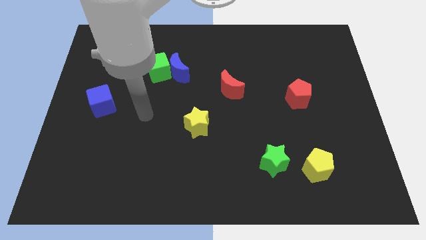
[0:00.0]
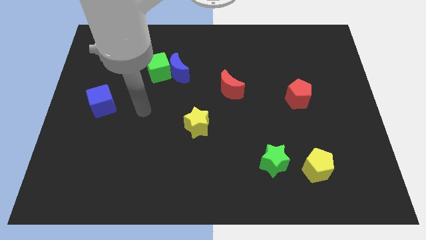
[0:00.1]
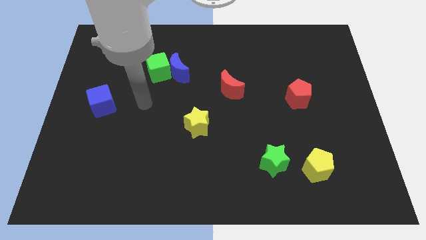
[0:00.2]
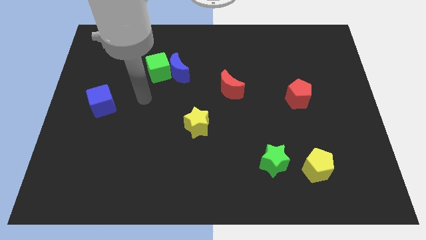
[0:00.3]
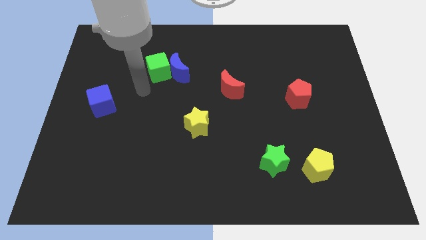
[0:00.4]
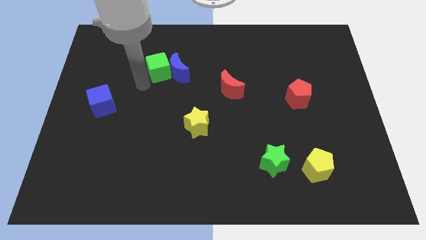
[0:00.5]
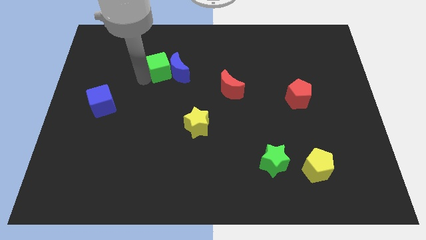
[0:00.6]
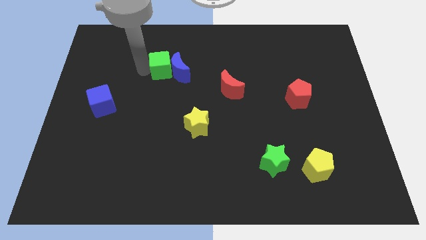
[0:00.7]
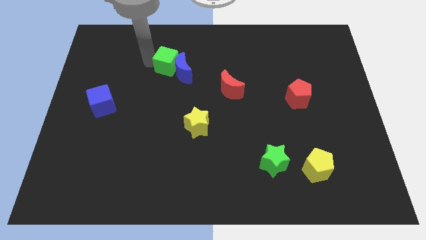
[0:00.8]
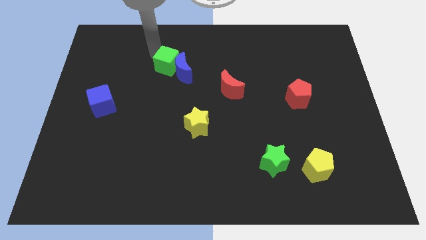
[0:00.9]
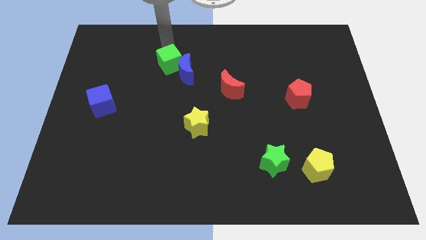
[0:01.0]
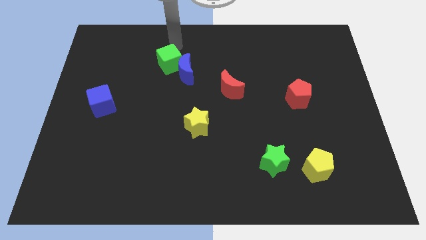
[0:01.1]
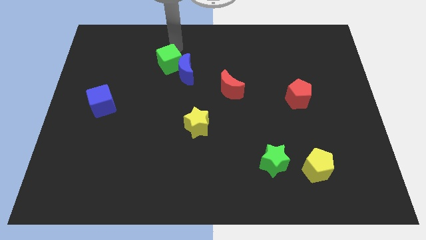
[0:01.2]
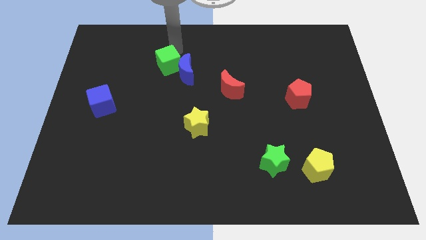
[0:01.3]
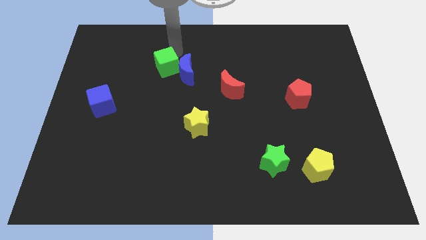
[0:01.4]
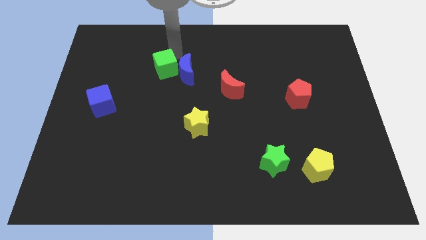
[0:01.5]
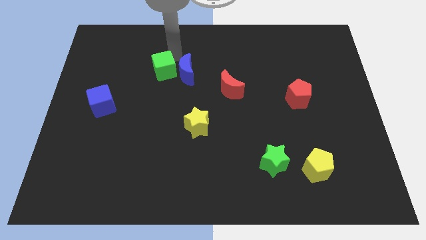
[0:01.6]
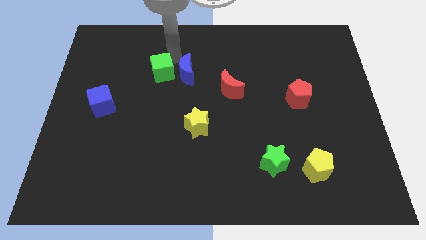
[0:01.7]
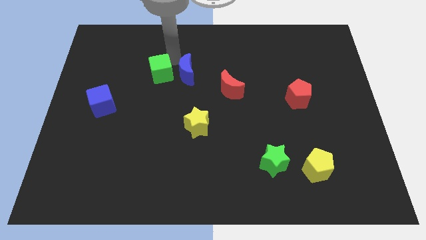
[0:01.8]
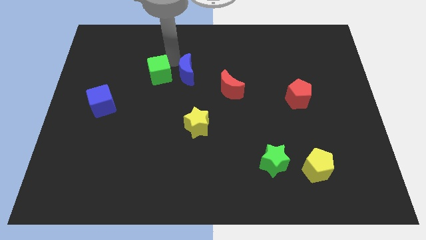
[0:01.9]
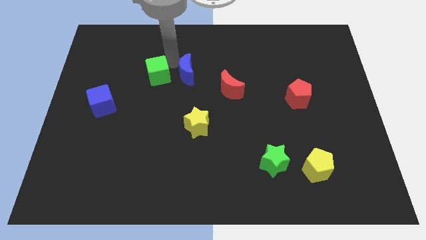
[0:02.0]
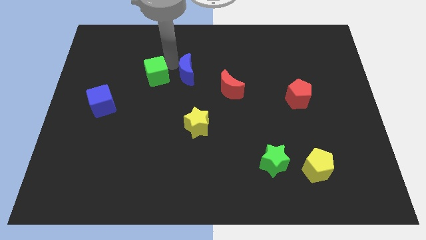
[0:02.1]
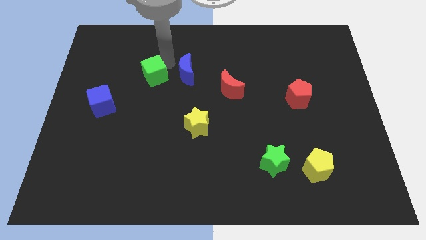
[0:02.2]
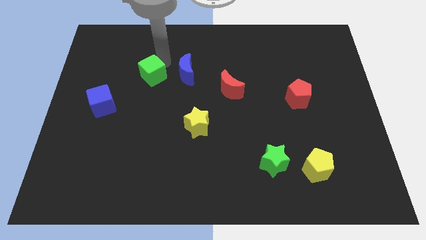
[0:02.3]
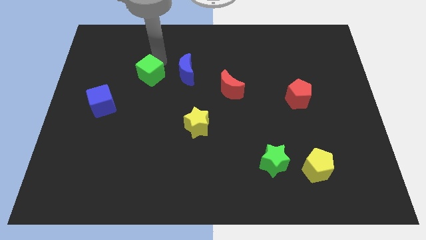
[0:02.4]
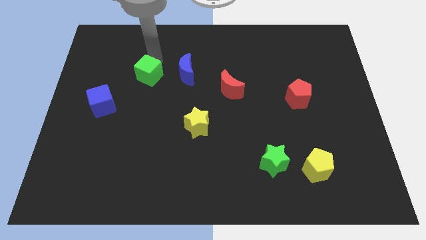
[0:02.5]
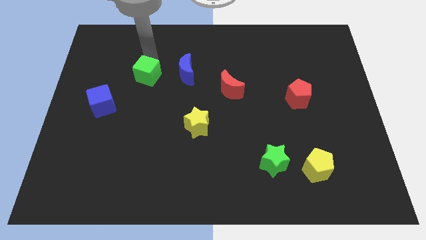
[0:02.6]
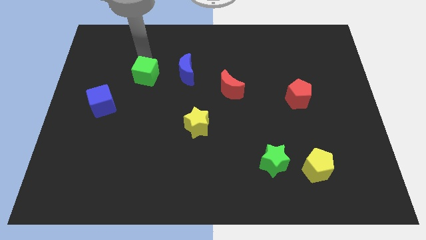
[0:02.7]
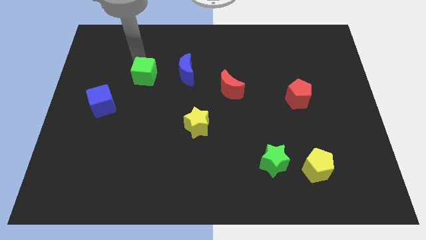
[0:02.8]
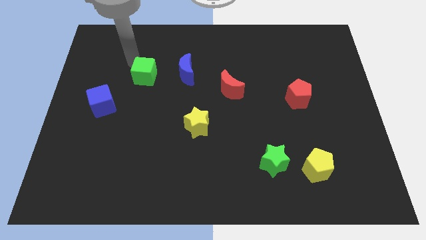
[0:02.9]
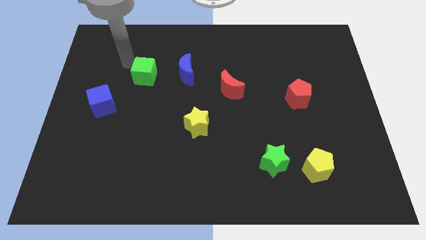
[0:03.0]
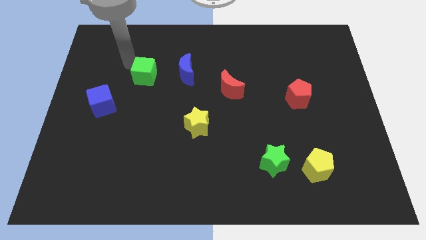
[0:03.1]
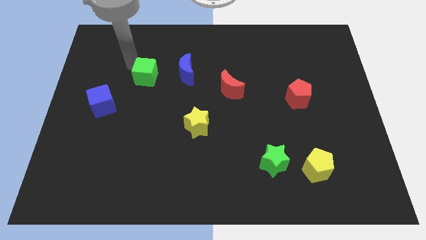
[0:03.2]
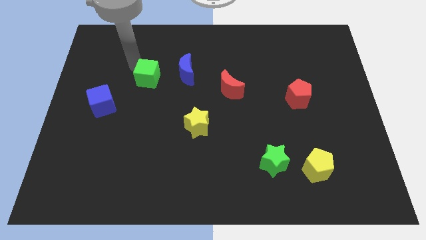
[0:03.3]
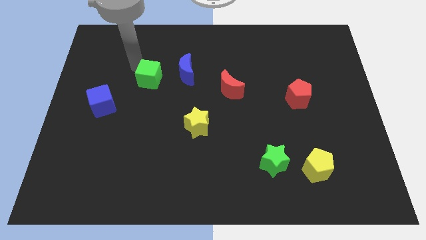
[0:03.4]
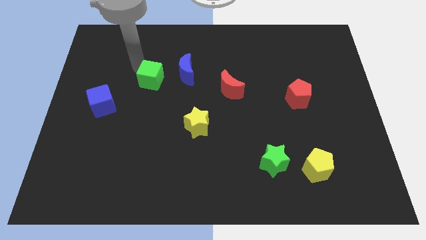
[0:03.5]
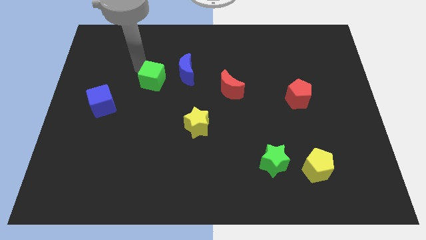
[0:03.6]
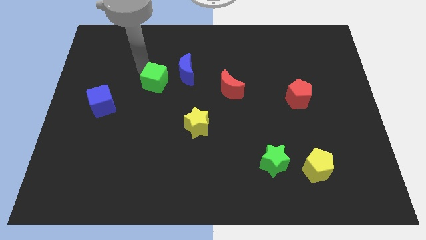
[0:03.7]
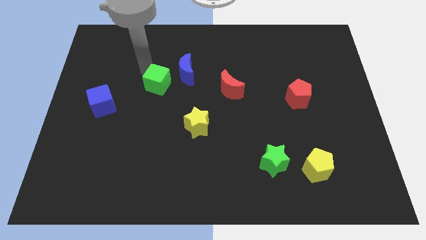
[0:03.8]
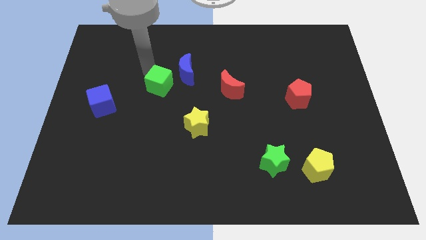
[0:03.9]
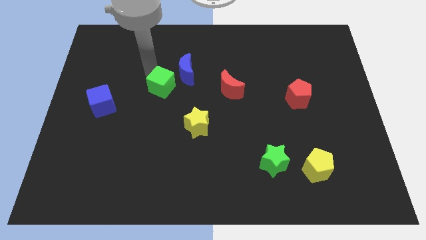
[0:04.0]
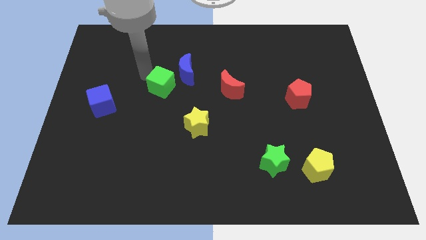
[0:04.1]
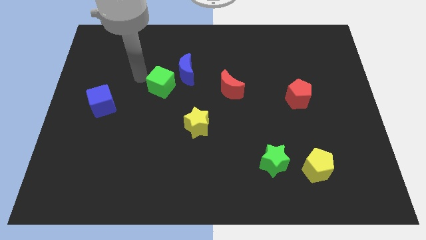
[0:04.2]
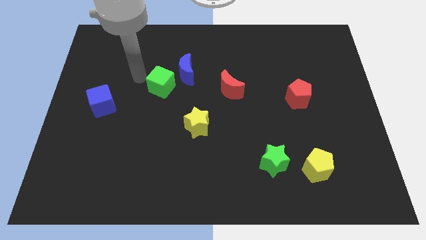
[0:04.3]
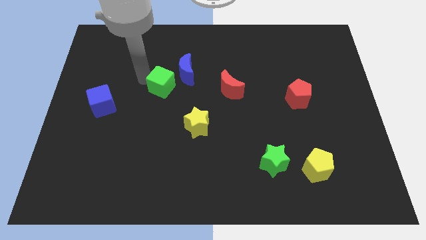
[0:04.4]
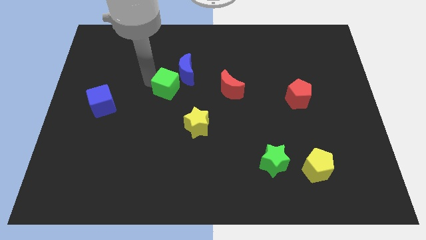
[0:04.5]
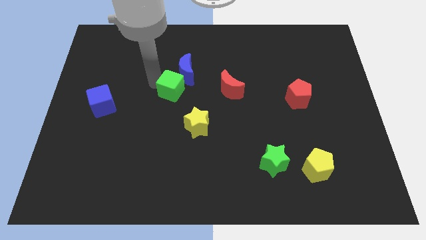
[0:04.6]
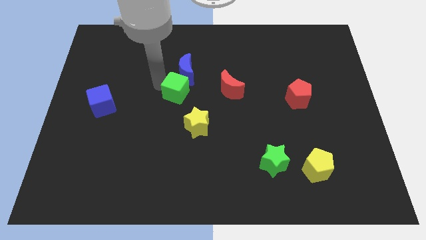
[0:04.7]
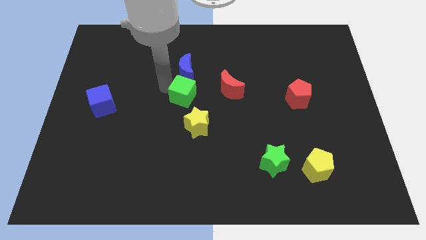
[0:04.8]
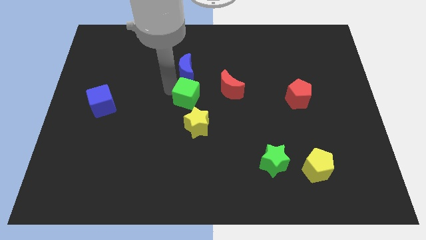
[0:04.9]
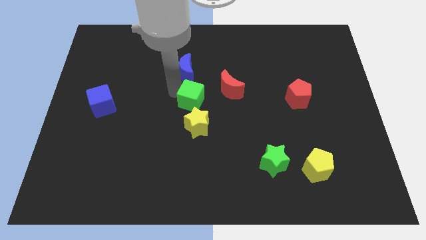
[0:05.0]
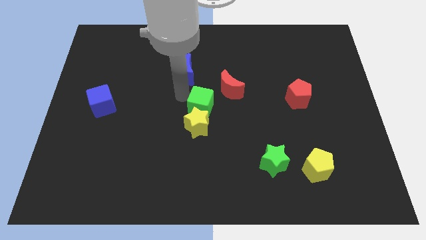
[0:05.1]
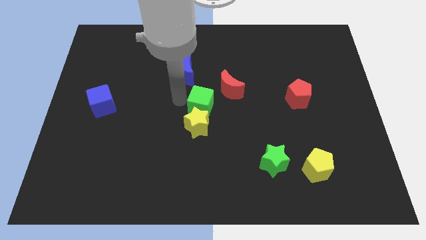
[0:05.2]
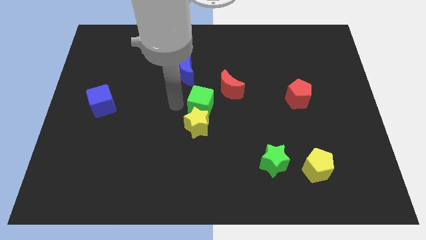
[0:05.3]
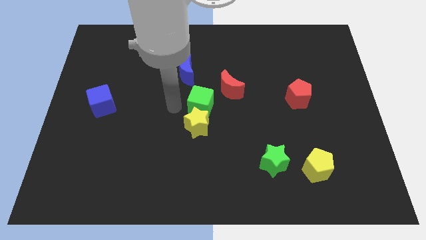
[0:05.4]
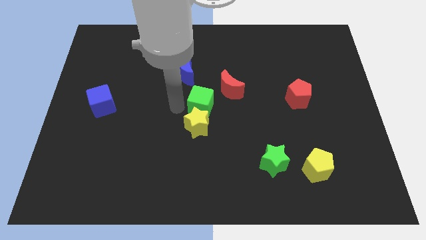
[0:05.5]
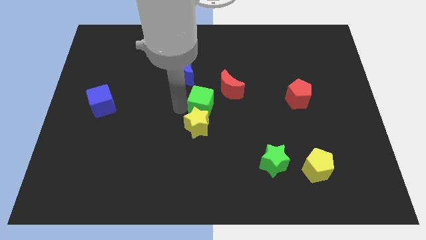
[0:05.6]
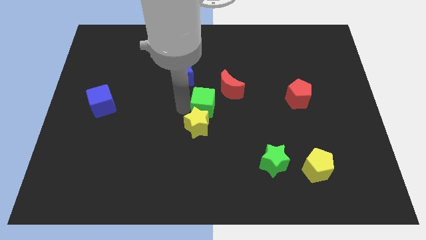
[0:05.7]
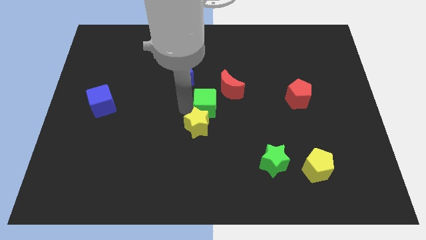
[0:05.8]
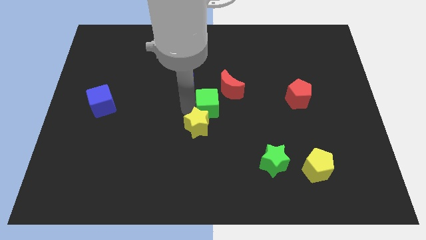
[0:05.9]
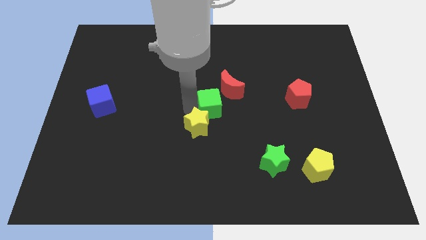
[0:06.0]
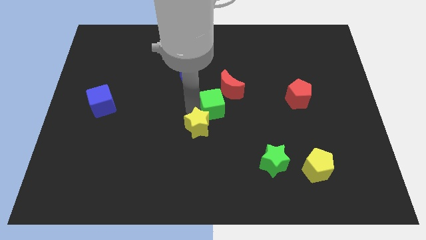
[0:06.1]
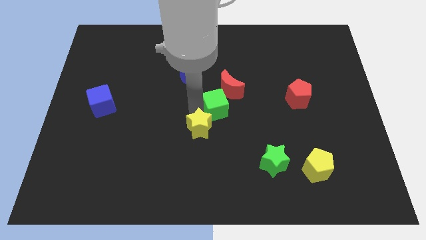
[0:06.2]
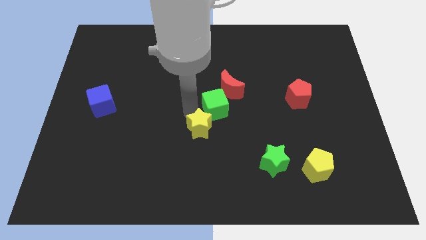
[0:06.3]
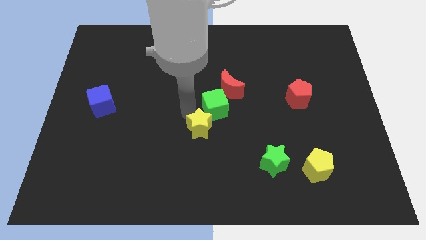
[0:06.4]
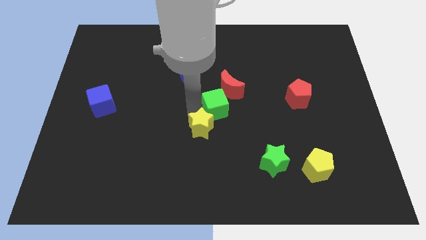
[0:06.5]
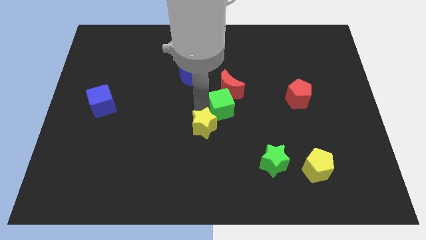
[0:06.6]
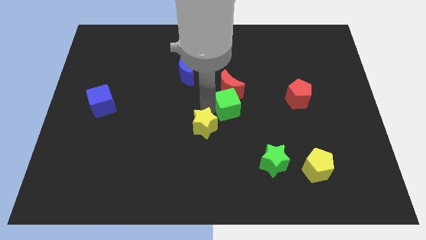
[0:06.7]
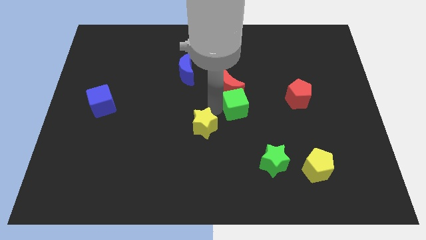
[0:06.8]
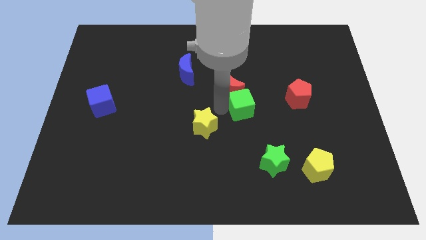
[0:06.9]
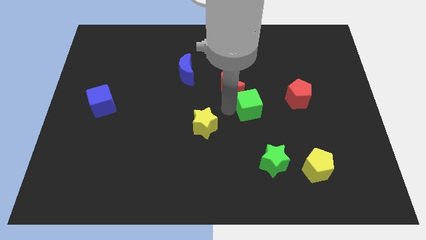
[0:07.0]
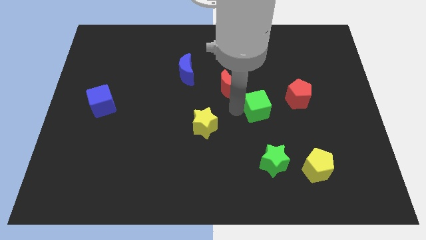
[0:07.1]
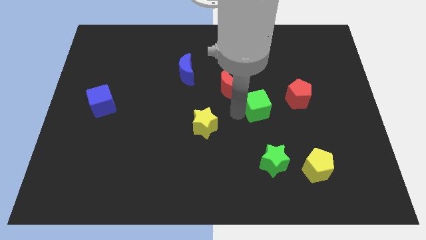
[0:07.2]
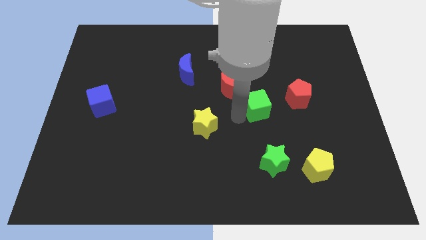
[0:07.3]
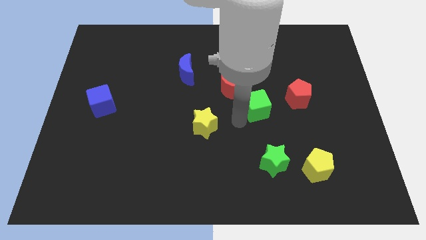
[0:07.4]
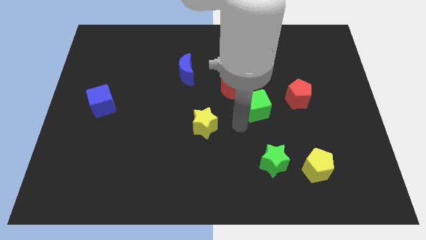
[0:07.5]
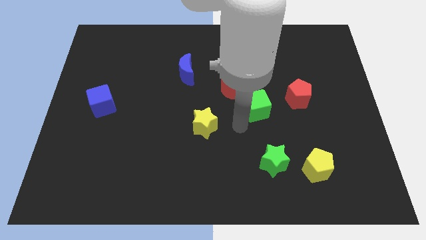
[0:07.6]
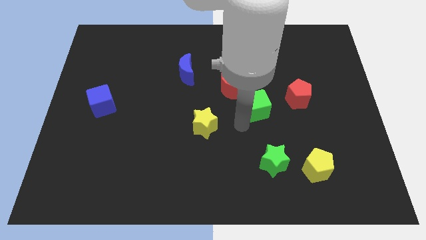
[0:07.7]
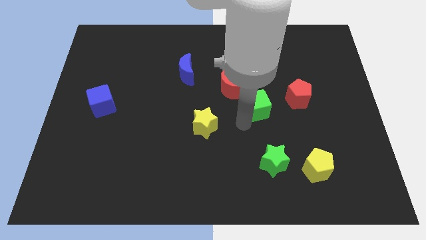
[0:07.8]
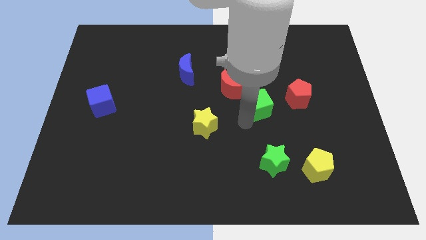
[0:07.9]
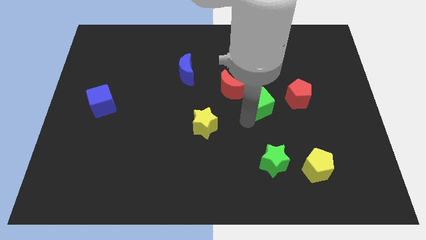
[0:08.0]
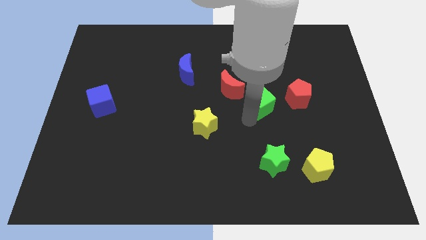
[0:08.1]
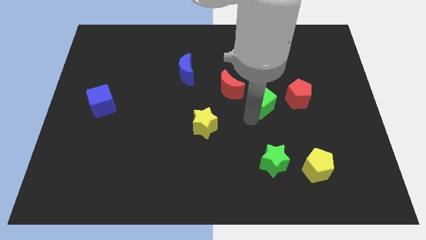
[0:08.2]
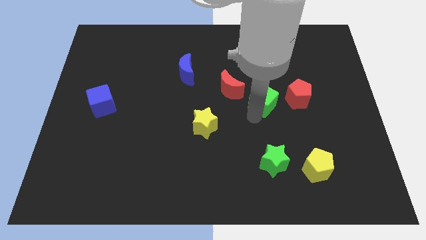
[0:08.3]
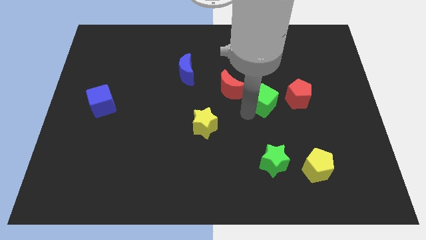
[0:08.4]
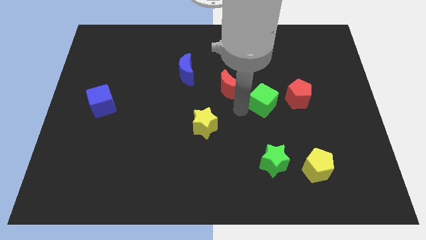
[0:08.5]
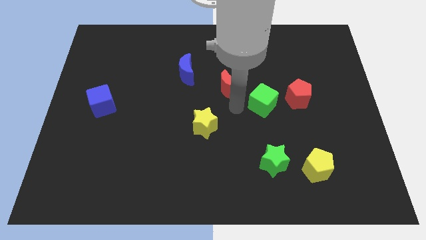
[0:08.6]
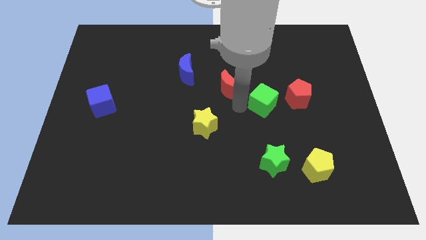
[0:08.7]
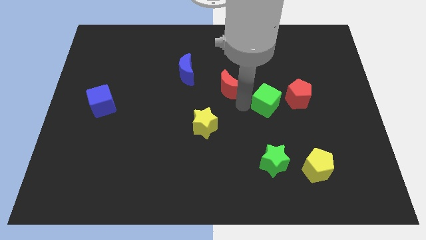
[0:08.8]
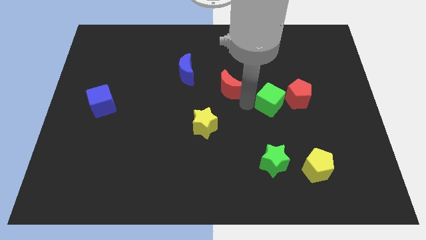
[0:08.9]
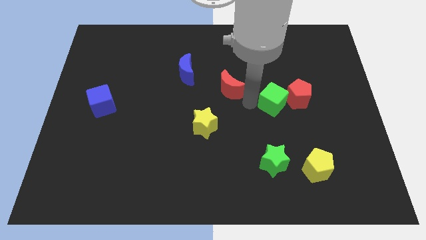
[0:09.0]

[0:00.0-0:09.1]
push the green cube next to the red pentagon
